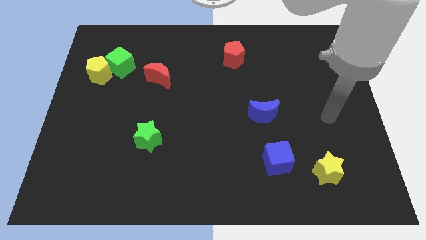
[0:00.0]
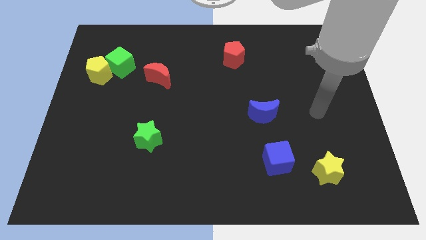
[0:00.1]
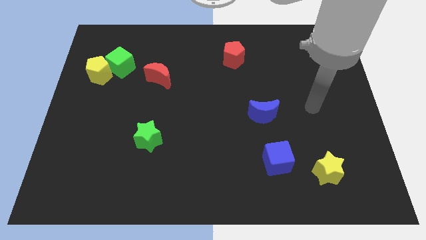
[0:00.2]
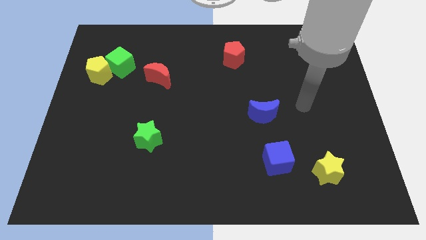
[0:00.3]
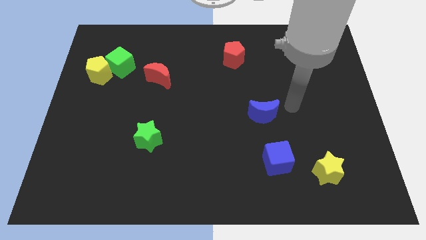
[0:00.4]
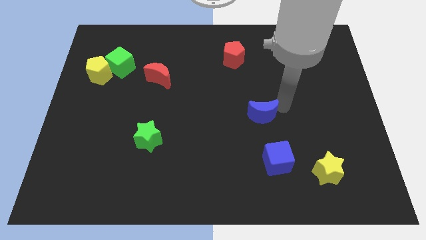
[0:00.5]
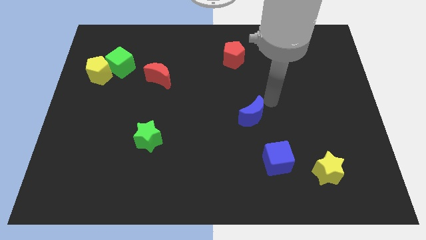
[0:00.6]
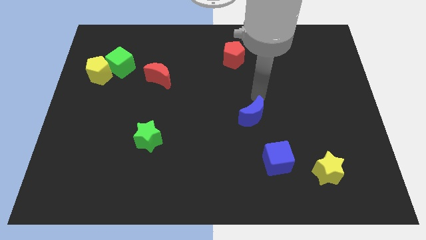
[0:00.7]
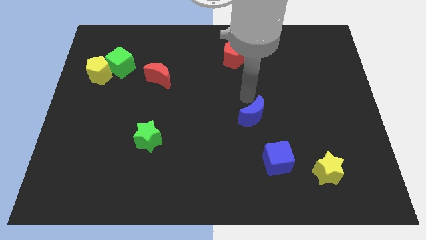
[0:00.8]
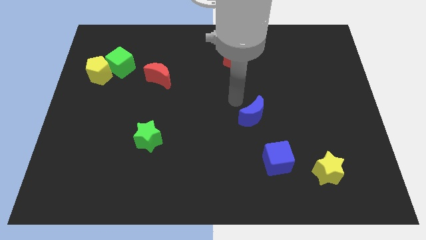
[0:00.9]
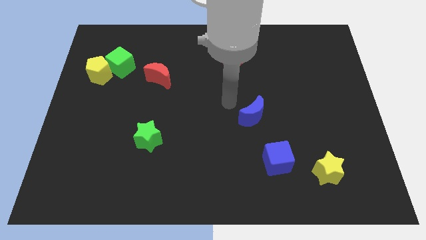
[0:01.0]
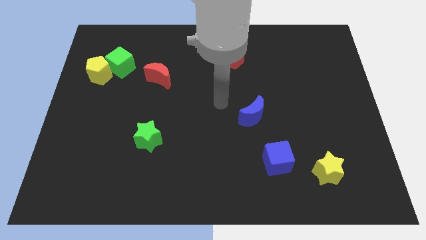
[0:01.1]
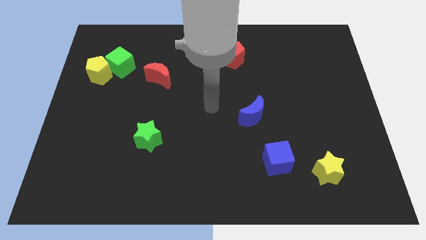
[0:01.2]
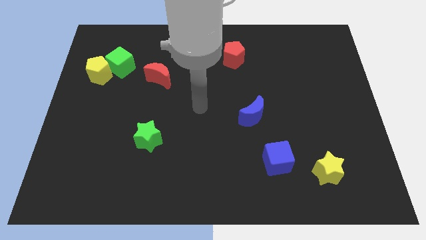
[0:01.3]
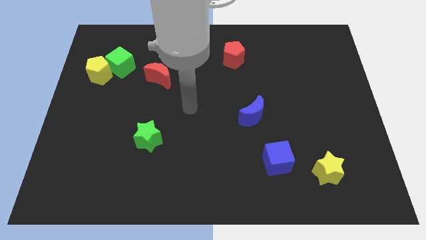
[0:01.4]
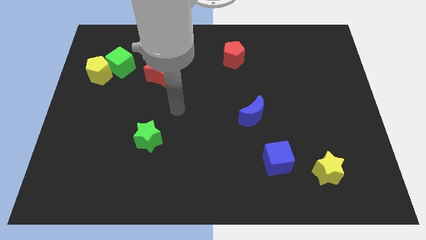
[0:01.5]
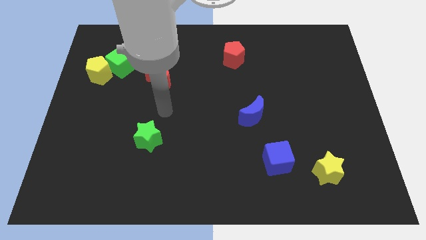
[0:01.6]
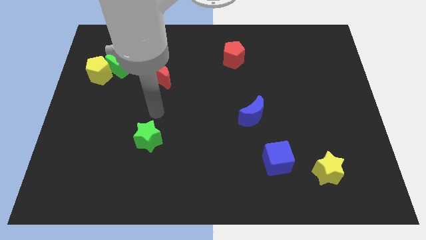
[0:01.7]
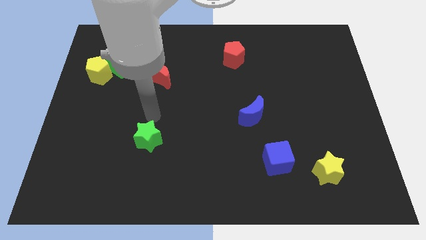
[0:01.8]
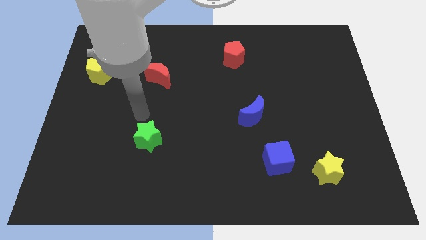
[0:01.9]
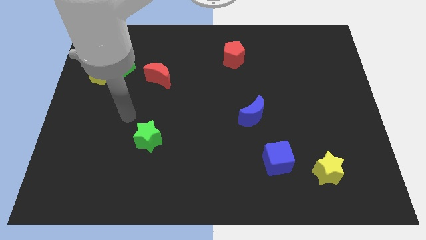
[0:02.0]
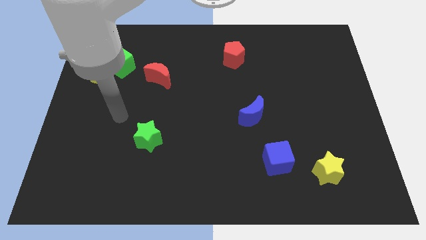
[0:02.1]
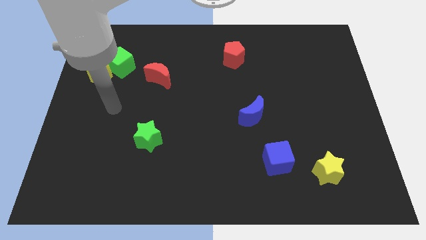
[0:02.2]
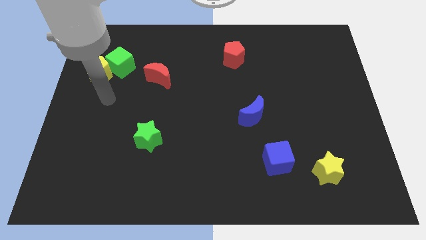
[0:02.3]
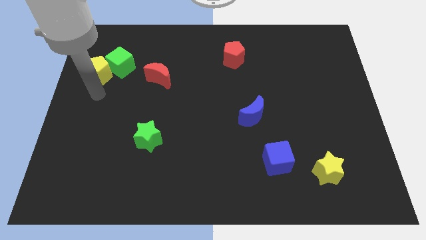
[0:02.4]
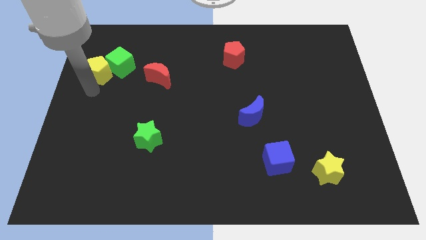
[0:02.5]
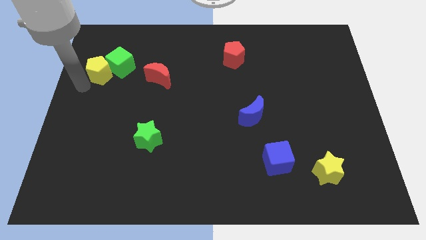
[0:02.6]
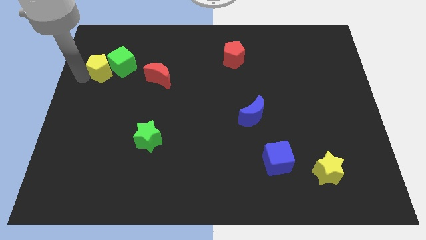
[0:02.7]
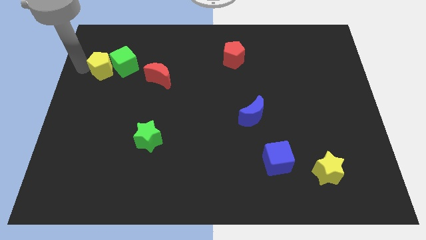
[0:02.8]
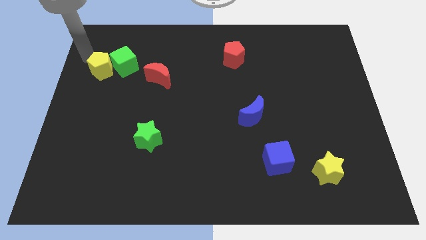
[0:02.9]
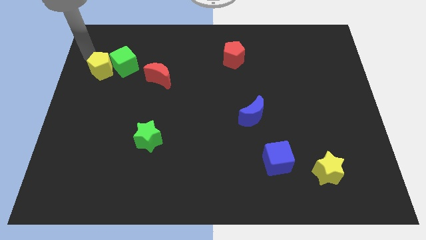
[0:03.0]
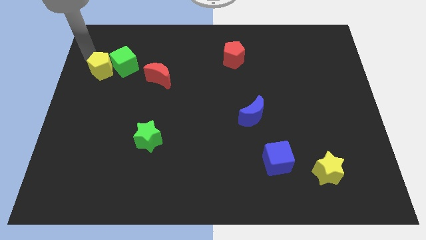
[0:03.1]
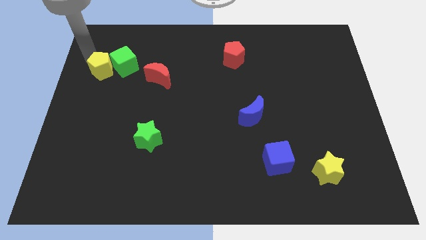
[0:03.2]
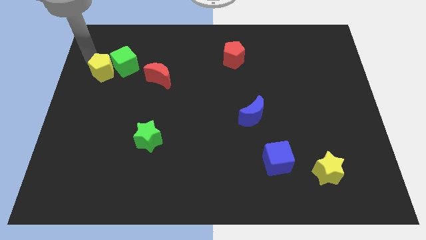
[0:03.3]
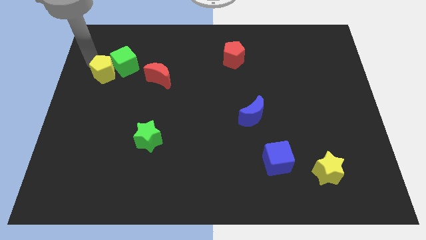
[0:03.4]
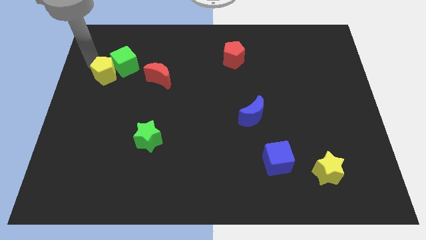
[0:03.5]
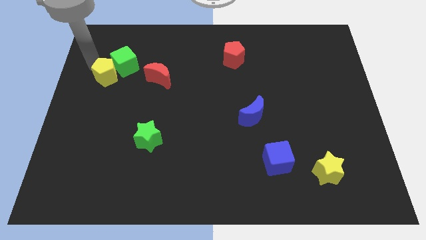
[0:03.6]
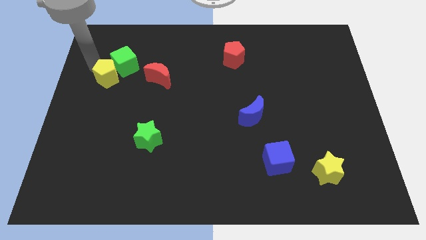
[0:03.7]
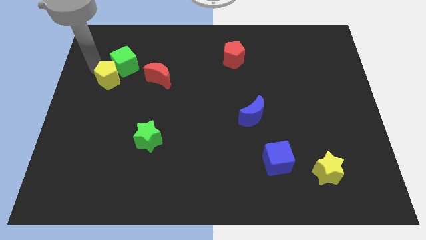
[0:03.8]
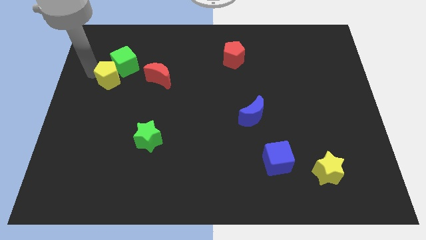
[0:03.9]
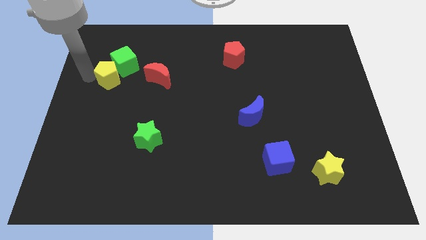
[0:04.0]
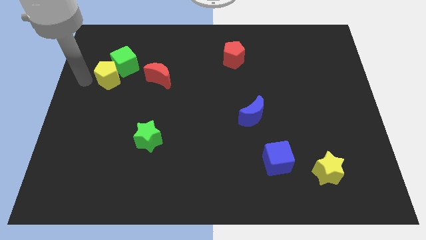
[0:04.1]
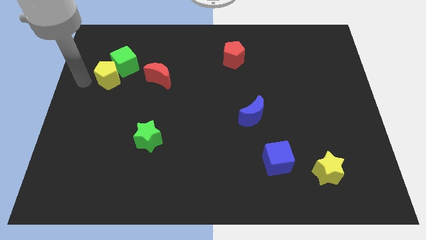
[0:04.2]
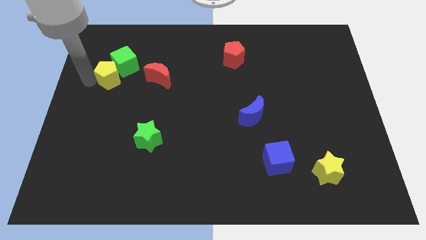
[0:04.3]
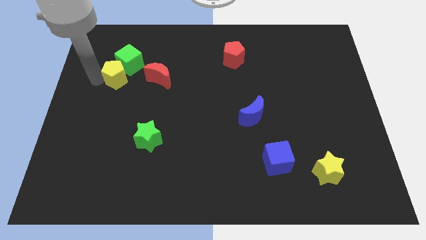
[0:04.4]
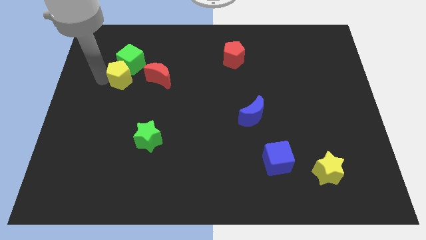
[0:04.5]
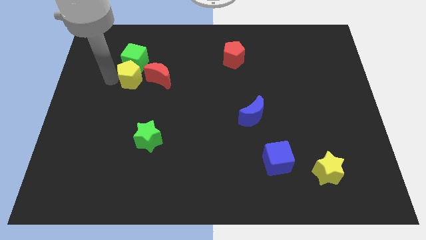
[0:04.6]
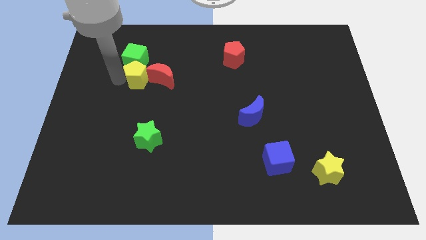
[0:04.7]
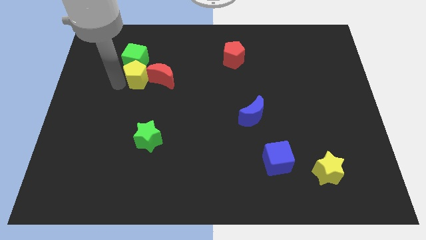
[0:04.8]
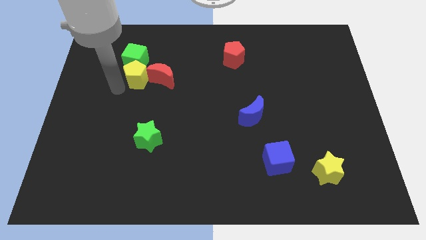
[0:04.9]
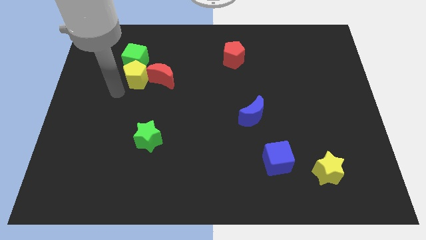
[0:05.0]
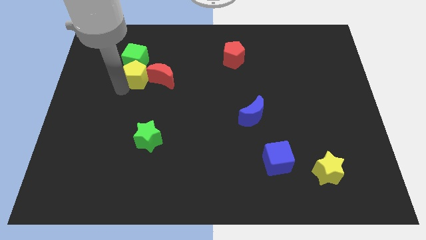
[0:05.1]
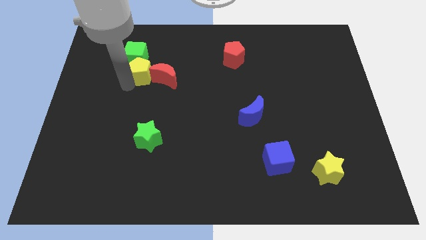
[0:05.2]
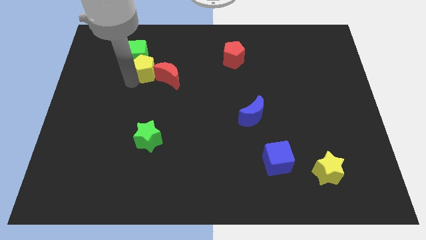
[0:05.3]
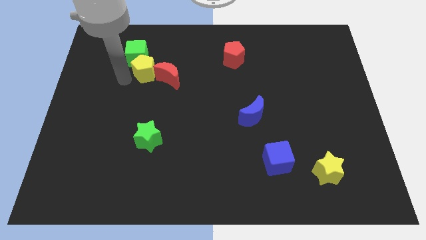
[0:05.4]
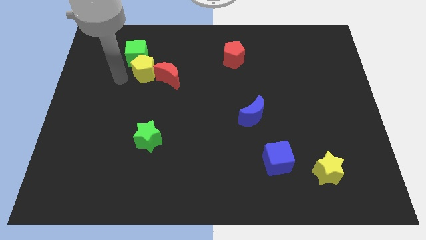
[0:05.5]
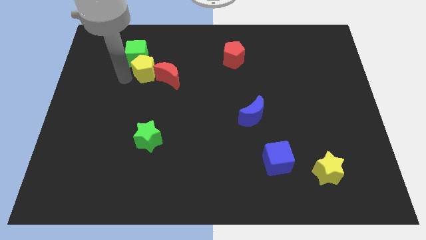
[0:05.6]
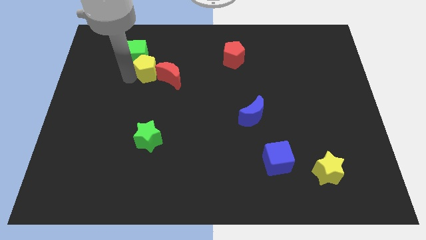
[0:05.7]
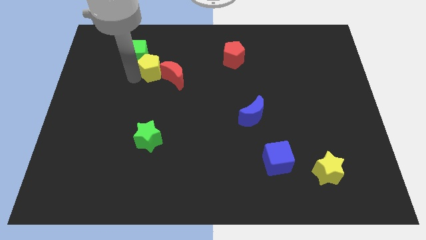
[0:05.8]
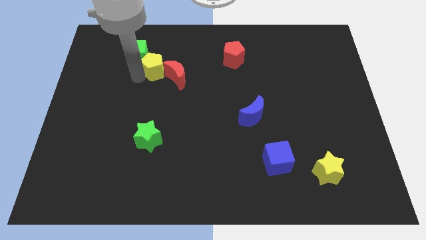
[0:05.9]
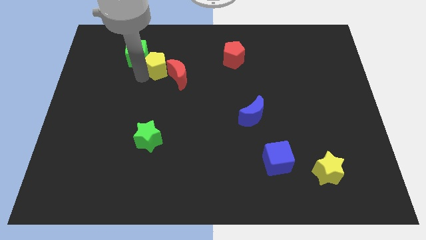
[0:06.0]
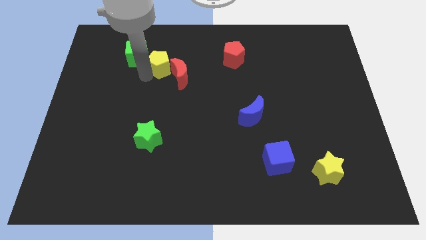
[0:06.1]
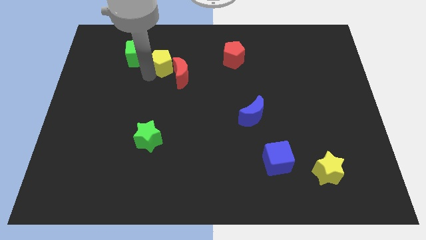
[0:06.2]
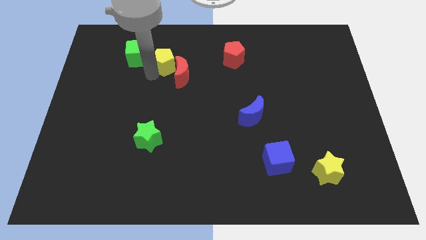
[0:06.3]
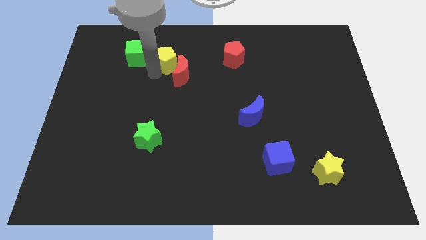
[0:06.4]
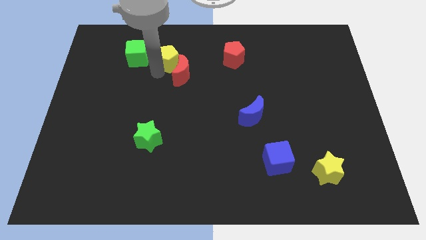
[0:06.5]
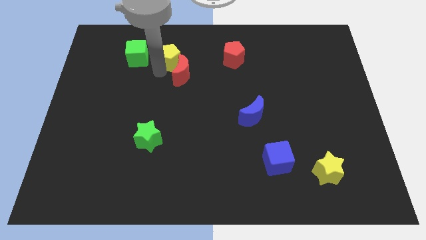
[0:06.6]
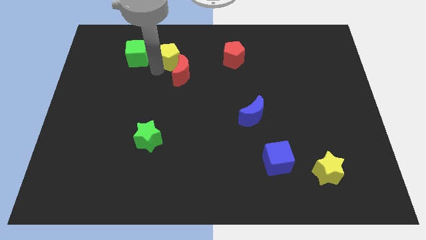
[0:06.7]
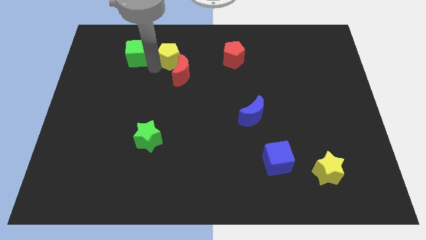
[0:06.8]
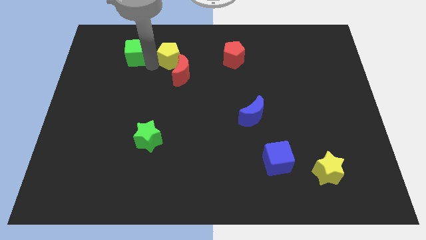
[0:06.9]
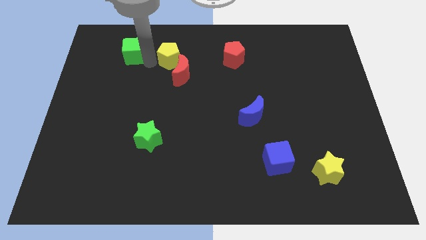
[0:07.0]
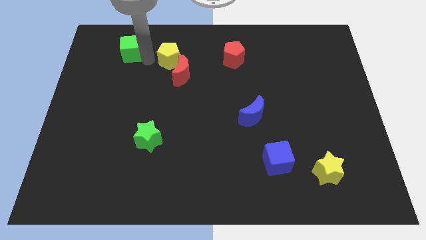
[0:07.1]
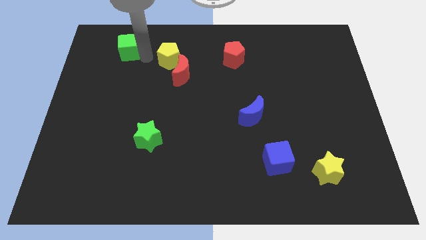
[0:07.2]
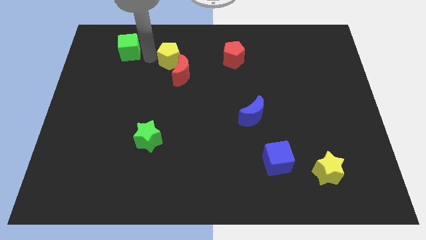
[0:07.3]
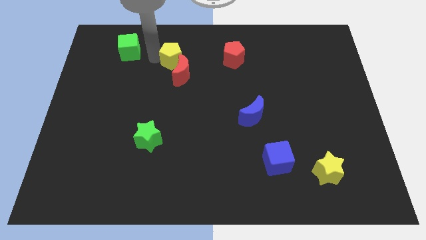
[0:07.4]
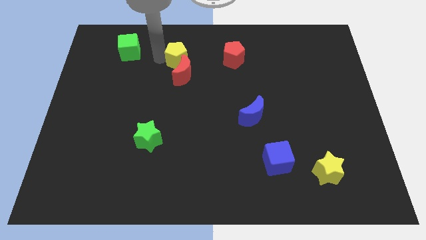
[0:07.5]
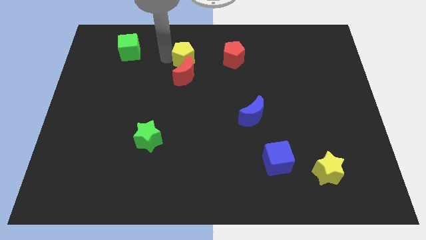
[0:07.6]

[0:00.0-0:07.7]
slide the yellow pentagon right

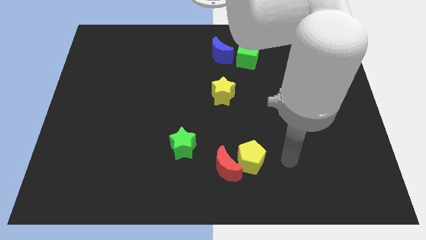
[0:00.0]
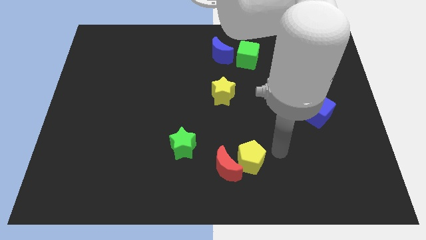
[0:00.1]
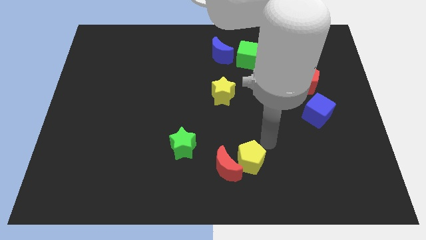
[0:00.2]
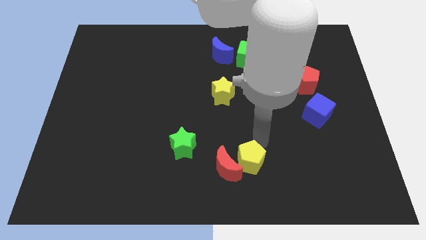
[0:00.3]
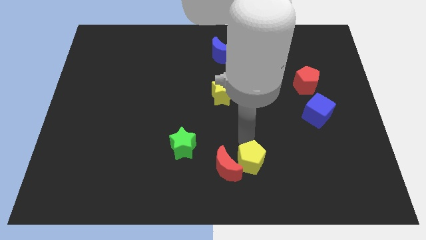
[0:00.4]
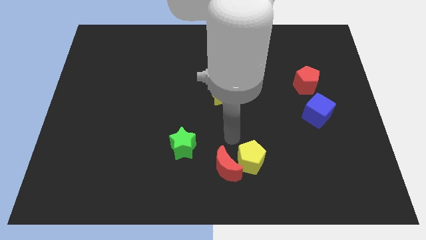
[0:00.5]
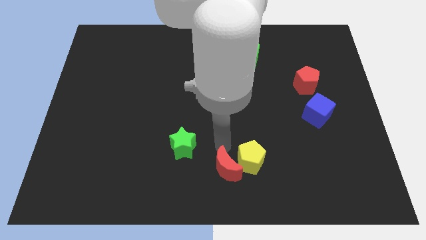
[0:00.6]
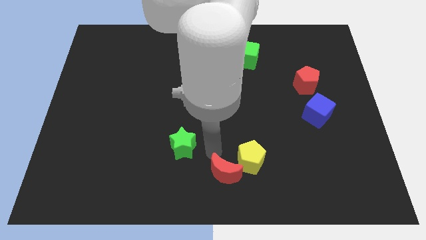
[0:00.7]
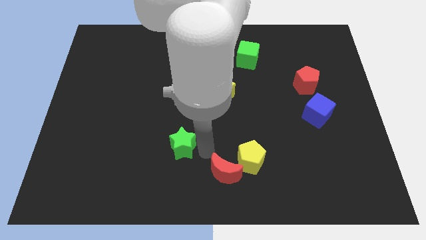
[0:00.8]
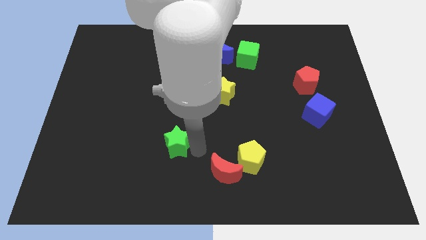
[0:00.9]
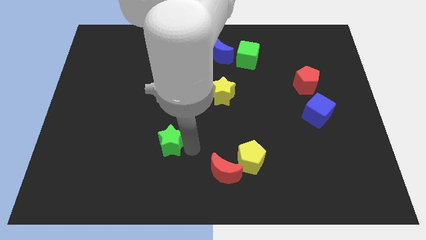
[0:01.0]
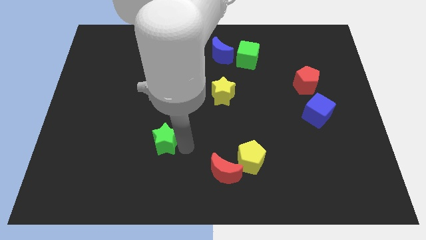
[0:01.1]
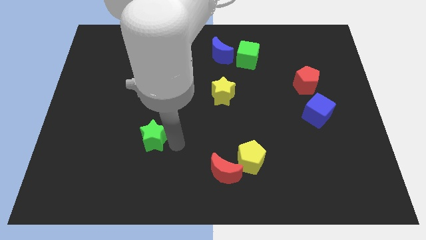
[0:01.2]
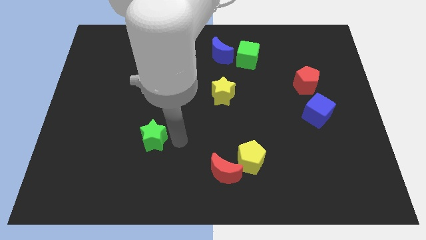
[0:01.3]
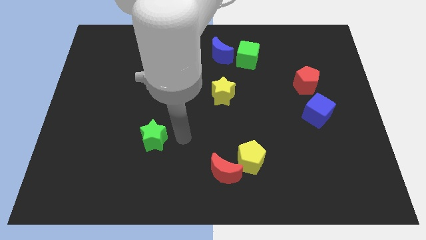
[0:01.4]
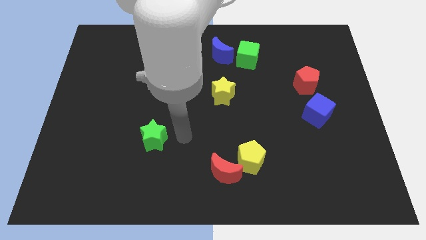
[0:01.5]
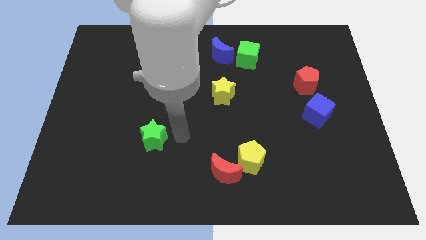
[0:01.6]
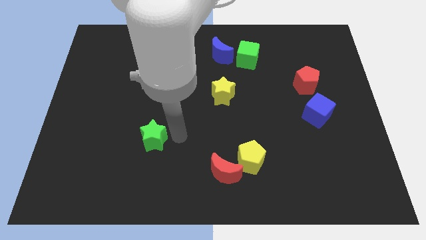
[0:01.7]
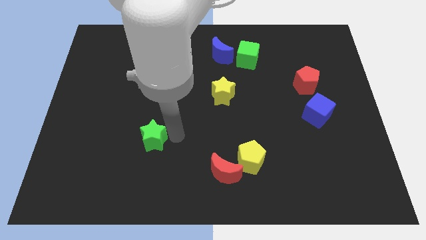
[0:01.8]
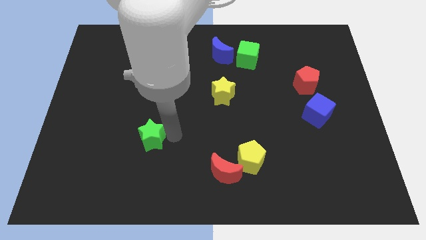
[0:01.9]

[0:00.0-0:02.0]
slightly move the green star to the left
